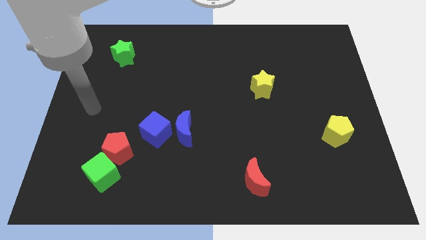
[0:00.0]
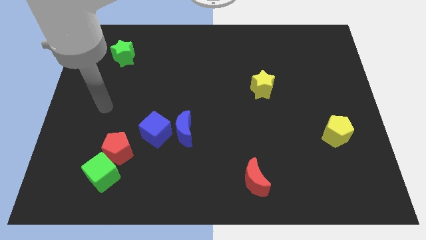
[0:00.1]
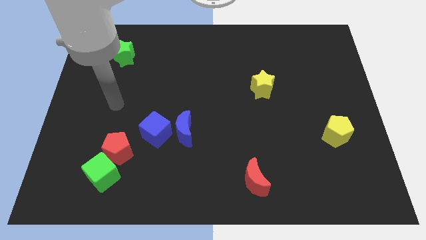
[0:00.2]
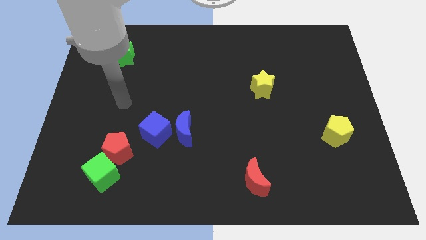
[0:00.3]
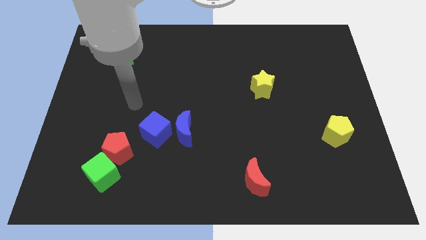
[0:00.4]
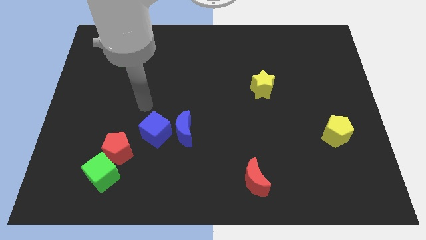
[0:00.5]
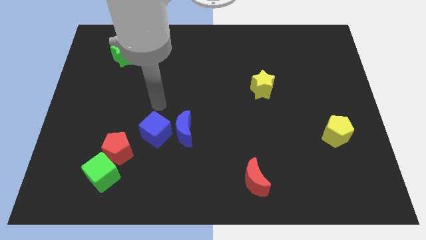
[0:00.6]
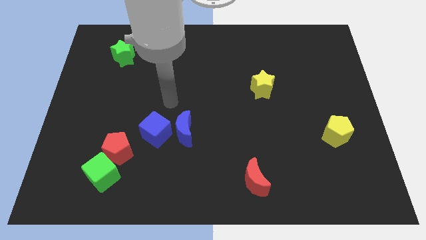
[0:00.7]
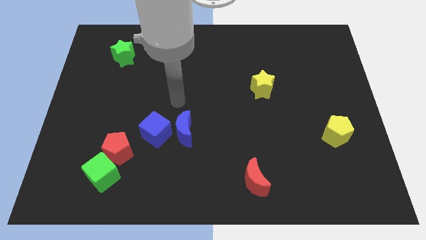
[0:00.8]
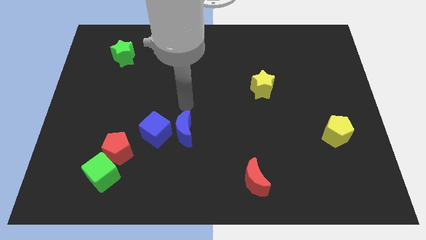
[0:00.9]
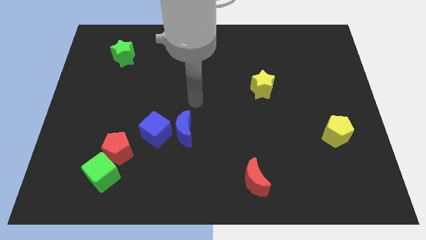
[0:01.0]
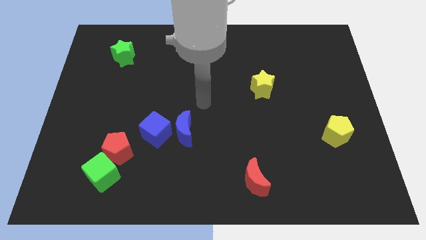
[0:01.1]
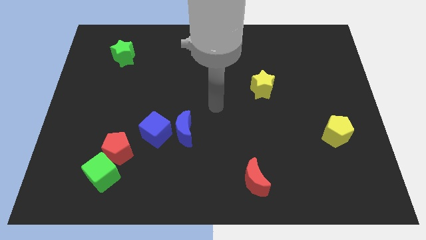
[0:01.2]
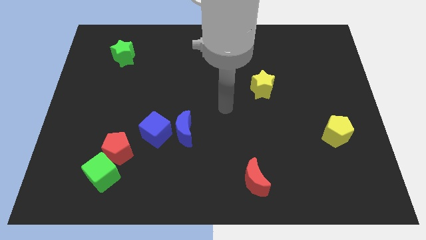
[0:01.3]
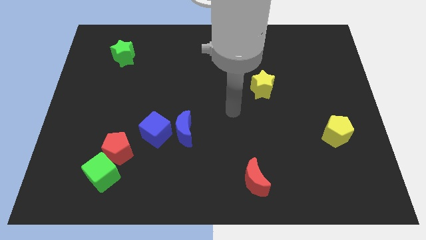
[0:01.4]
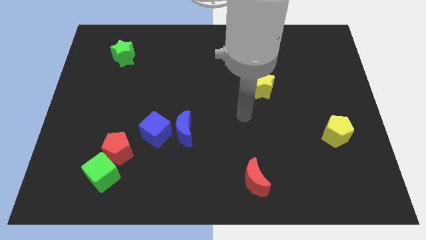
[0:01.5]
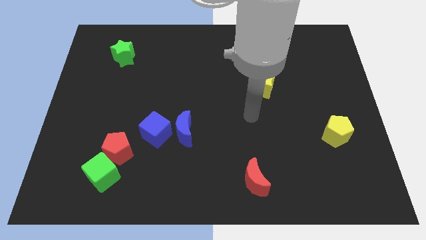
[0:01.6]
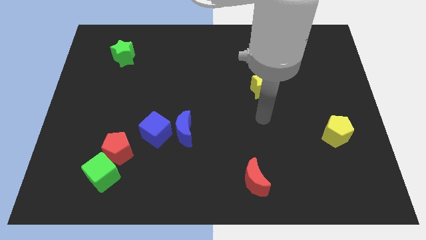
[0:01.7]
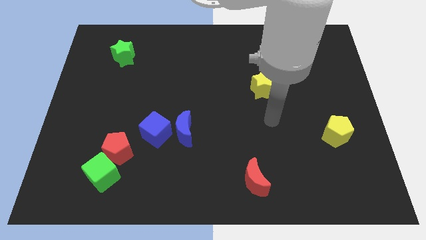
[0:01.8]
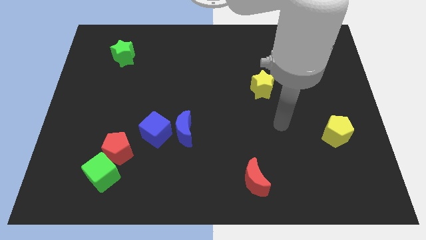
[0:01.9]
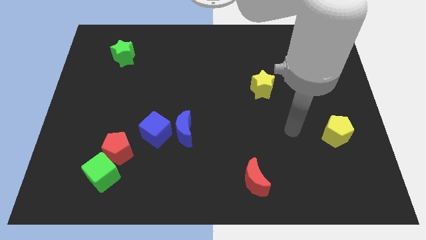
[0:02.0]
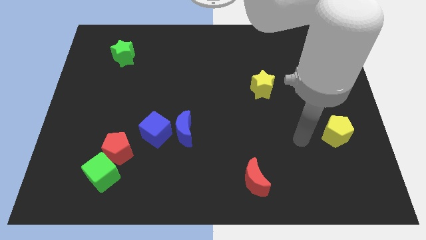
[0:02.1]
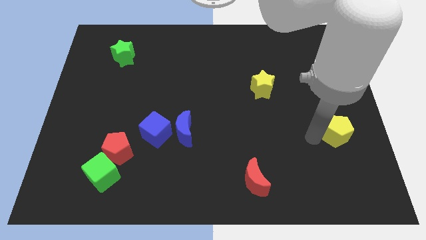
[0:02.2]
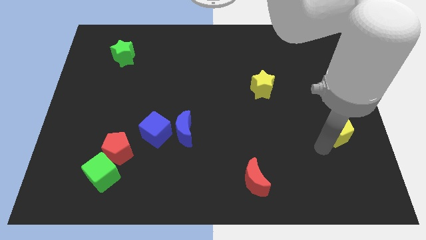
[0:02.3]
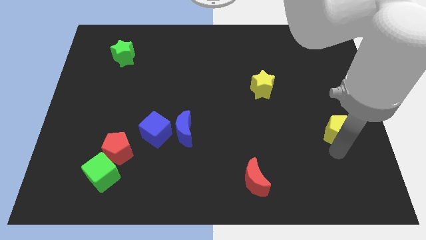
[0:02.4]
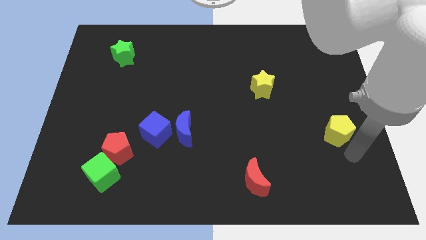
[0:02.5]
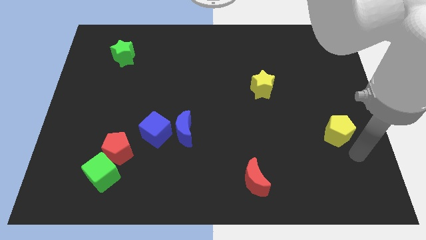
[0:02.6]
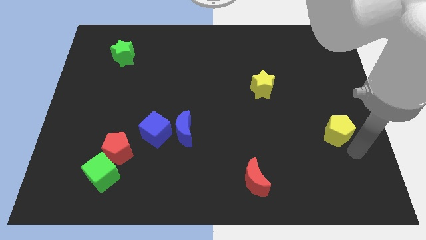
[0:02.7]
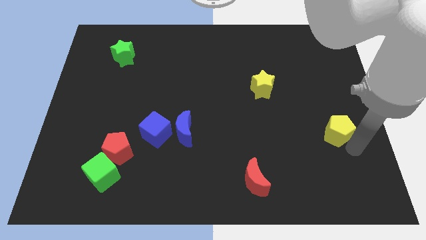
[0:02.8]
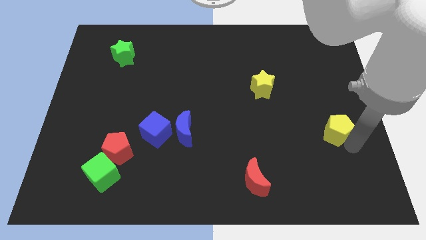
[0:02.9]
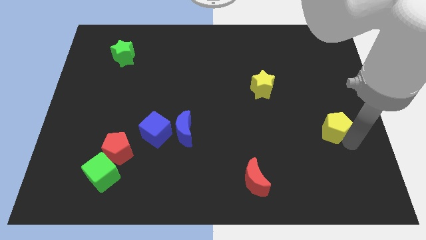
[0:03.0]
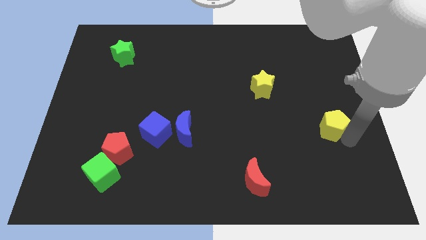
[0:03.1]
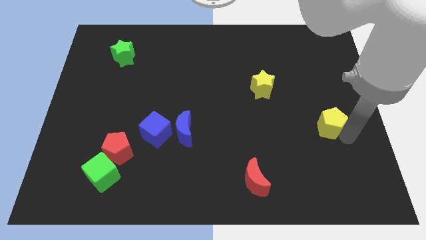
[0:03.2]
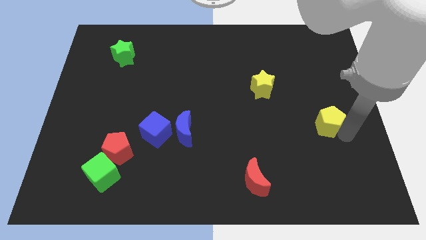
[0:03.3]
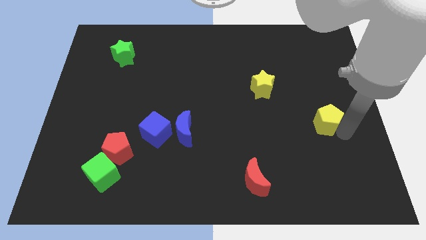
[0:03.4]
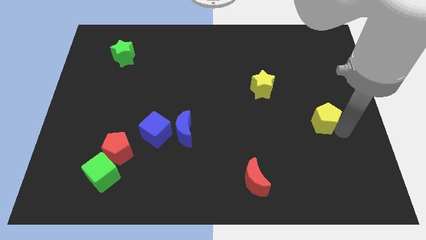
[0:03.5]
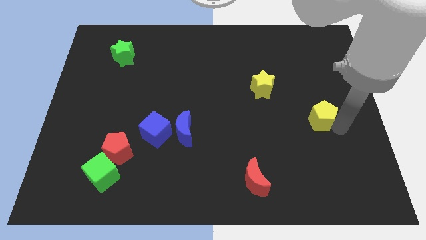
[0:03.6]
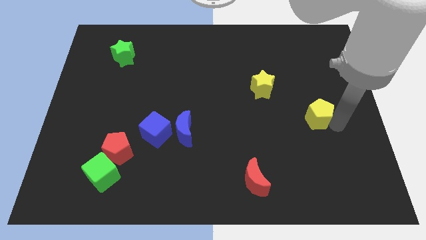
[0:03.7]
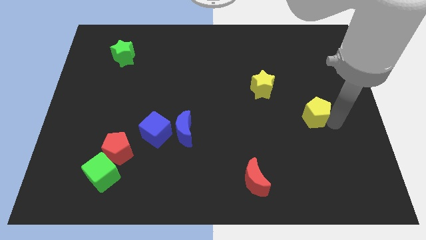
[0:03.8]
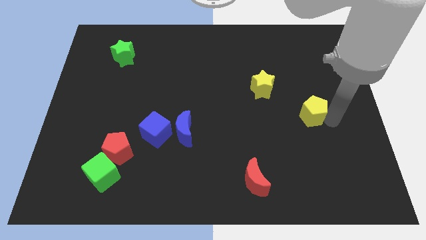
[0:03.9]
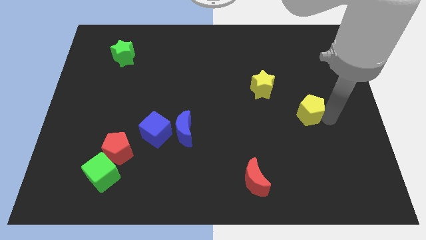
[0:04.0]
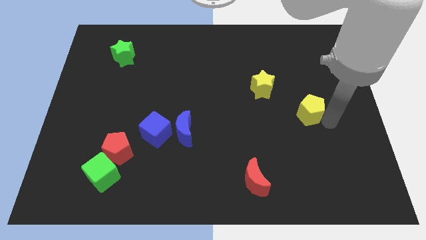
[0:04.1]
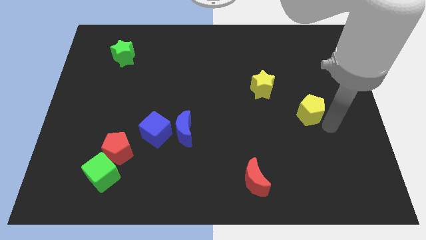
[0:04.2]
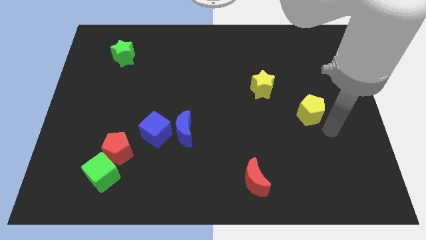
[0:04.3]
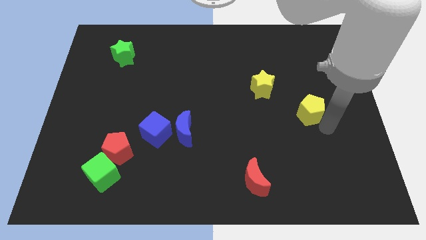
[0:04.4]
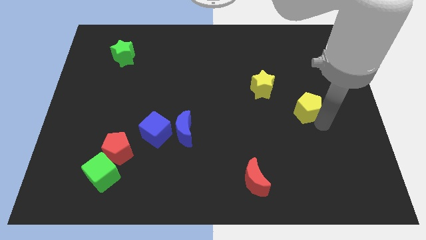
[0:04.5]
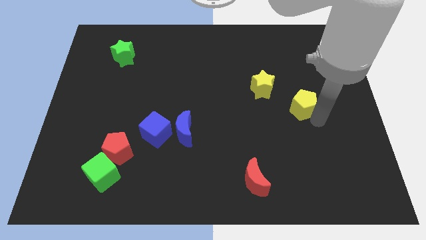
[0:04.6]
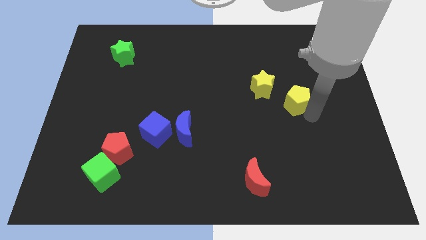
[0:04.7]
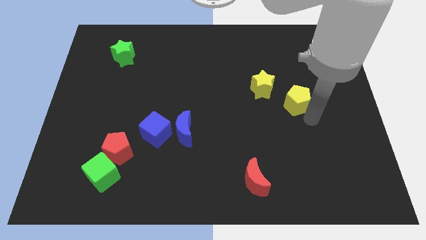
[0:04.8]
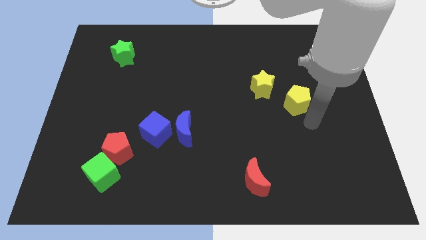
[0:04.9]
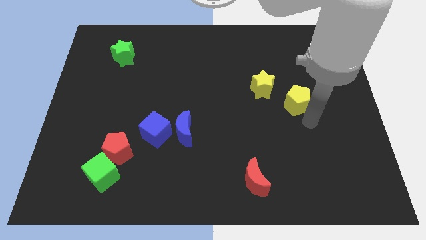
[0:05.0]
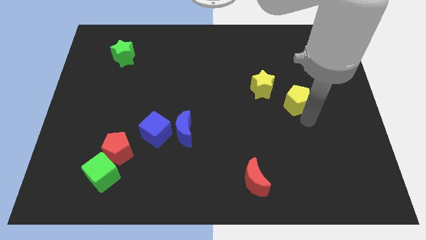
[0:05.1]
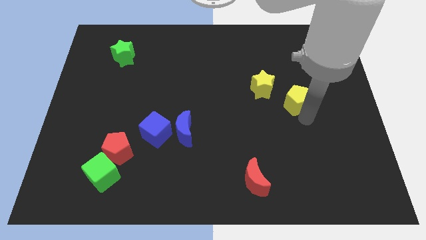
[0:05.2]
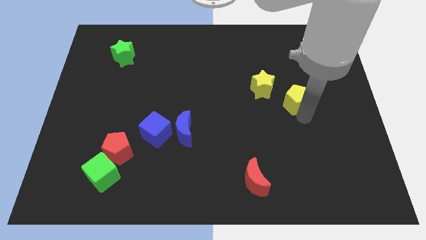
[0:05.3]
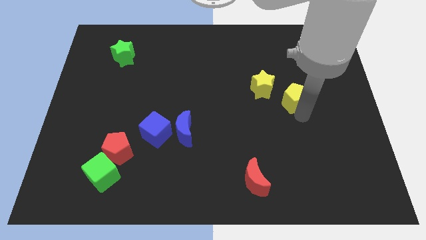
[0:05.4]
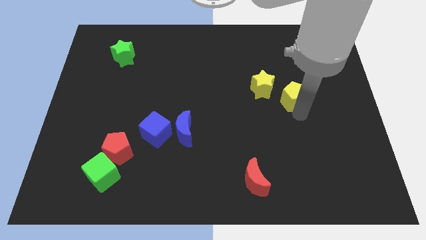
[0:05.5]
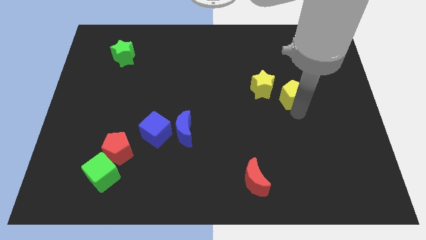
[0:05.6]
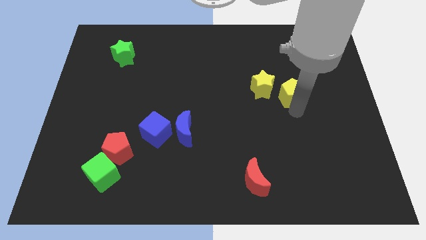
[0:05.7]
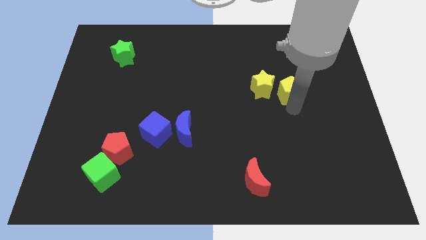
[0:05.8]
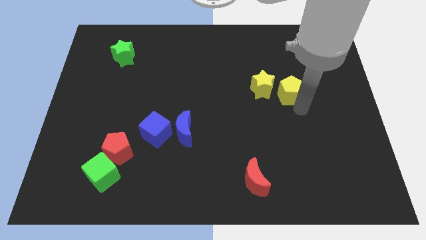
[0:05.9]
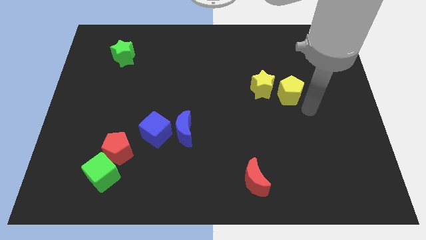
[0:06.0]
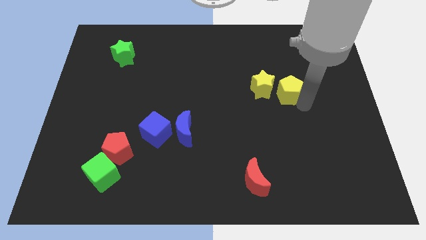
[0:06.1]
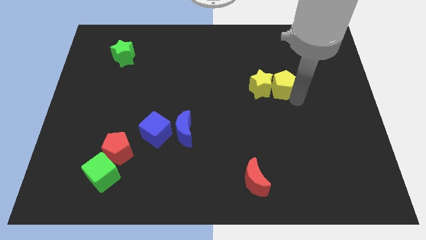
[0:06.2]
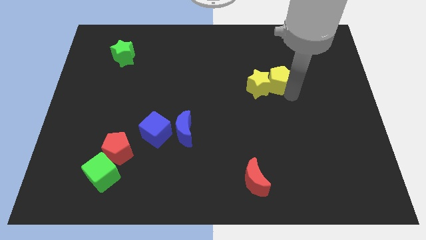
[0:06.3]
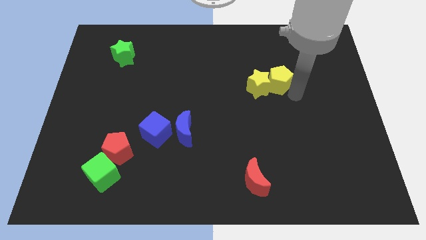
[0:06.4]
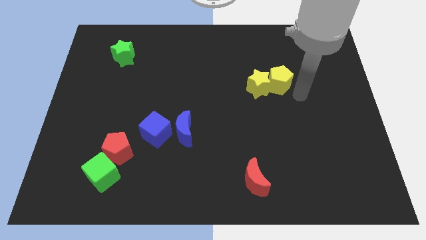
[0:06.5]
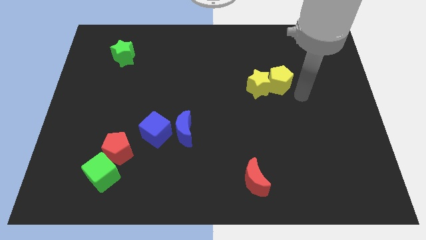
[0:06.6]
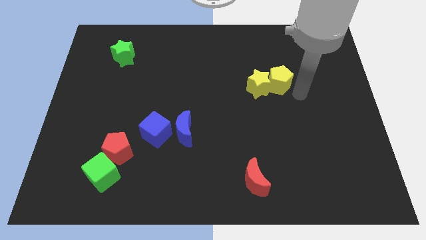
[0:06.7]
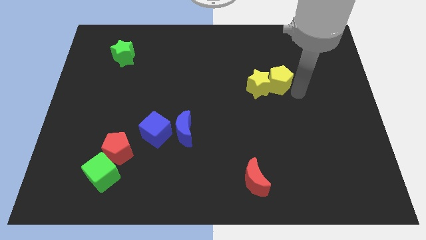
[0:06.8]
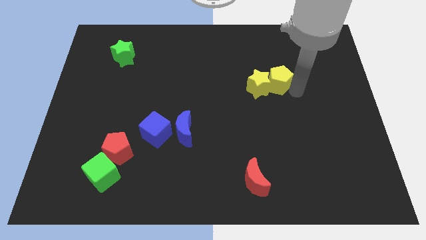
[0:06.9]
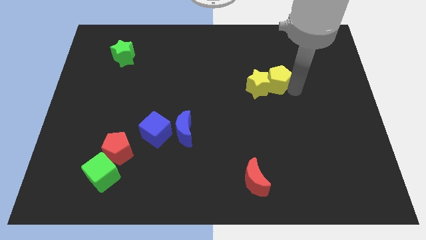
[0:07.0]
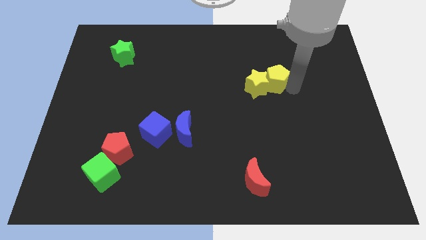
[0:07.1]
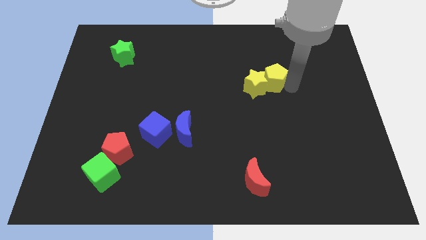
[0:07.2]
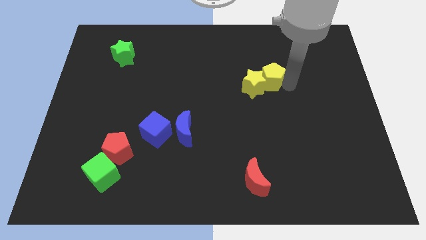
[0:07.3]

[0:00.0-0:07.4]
push the yellow pentagon upwards and to the left diagonally

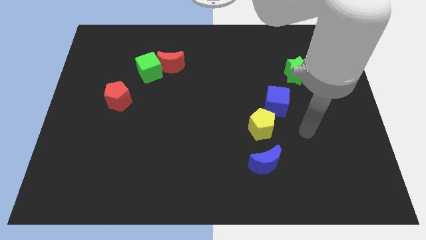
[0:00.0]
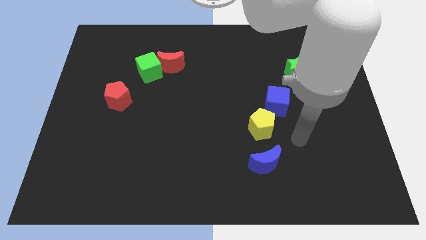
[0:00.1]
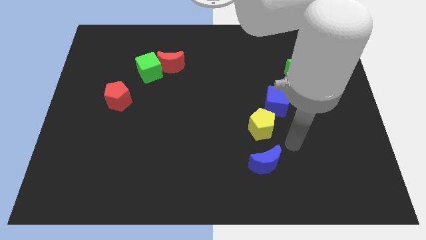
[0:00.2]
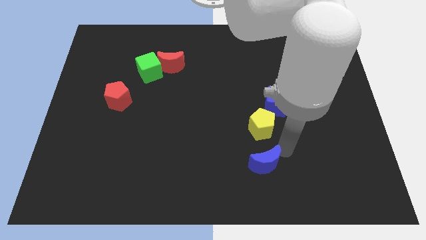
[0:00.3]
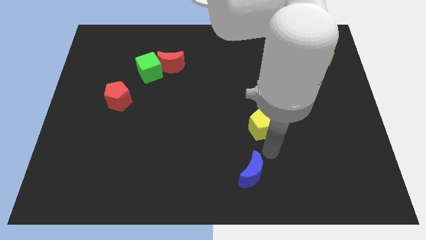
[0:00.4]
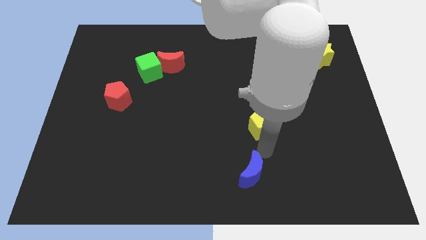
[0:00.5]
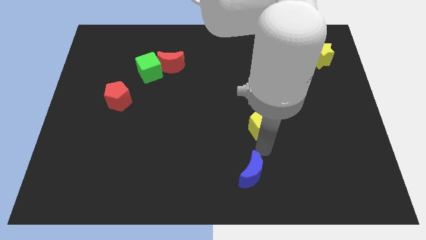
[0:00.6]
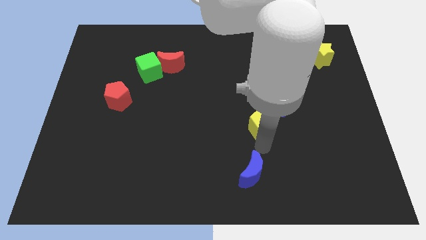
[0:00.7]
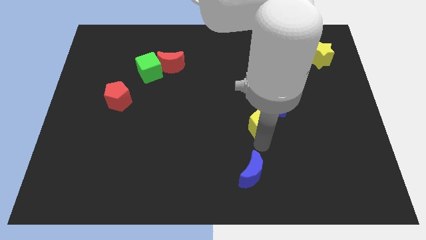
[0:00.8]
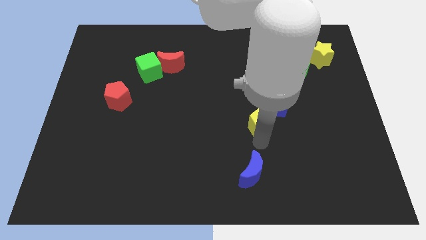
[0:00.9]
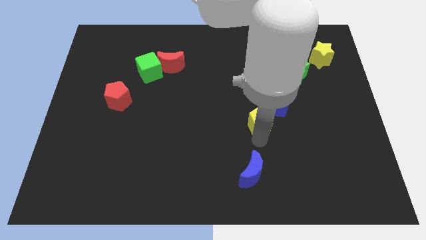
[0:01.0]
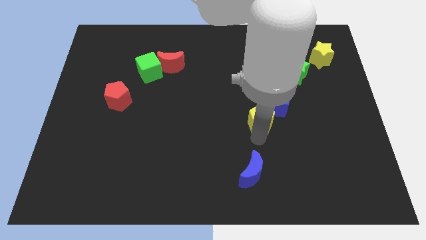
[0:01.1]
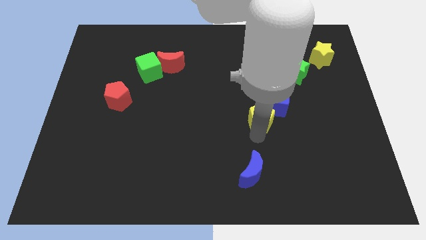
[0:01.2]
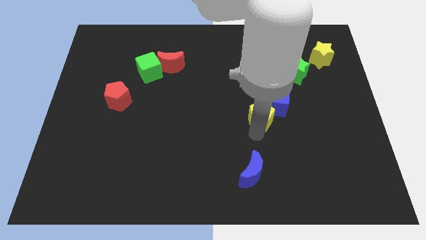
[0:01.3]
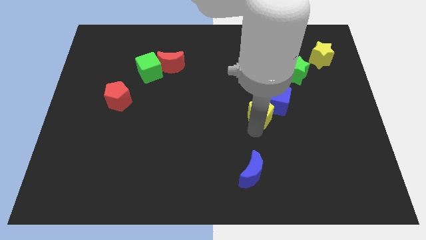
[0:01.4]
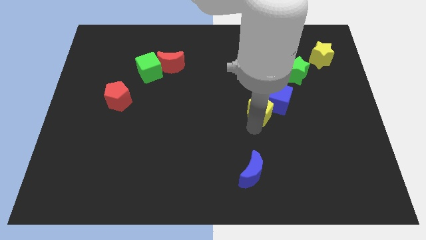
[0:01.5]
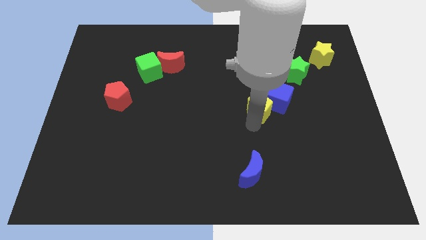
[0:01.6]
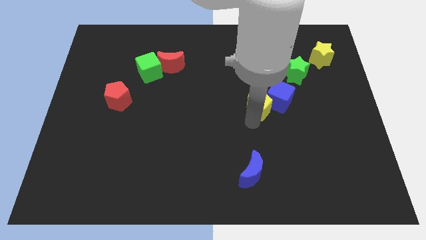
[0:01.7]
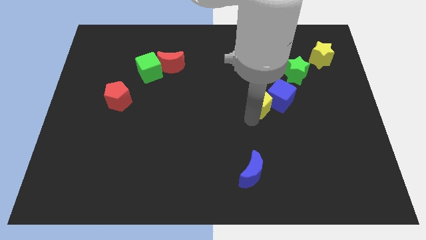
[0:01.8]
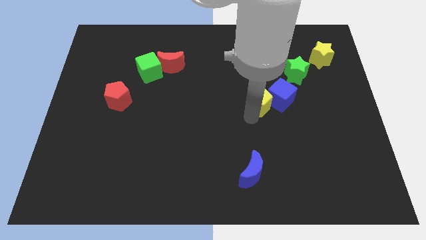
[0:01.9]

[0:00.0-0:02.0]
slide the yellow pentagon upwards a little bit
